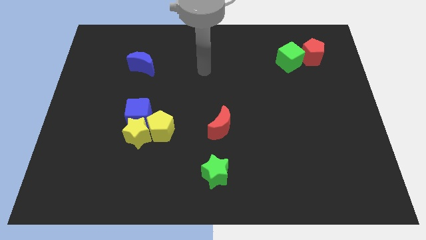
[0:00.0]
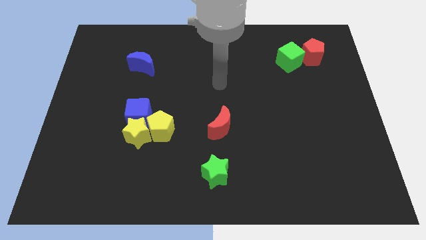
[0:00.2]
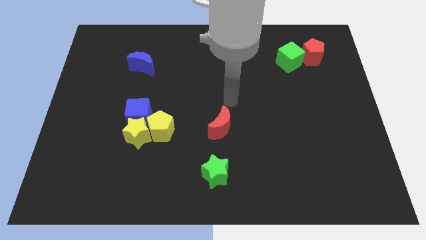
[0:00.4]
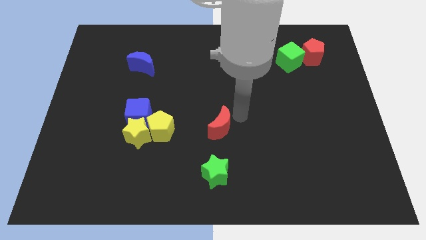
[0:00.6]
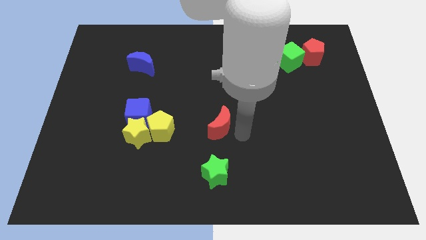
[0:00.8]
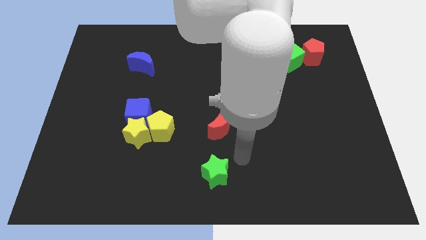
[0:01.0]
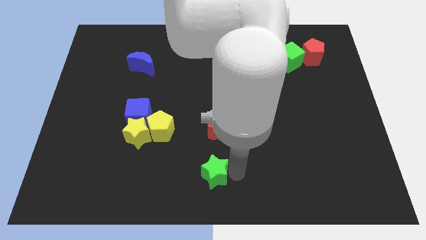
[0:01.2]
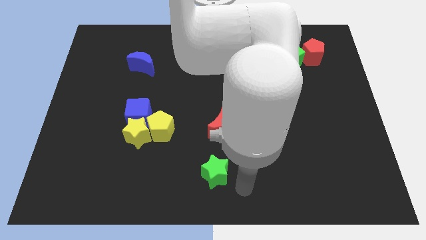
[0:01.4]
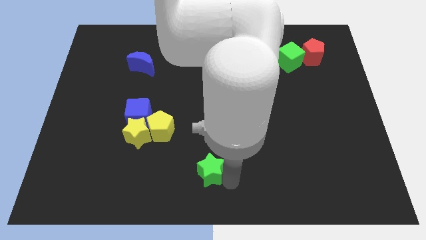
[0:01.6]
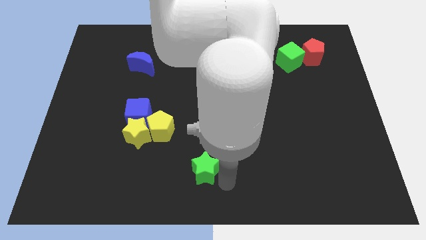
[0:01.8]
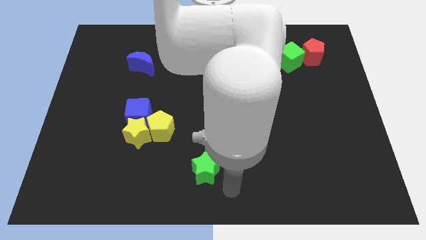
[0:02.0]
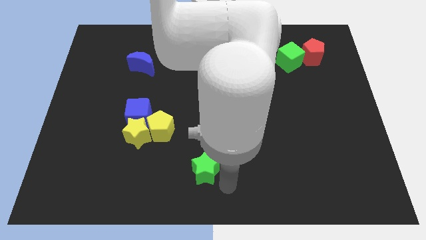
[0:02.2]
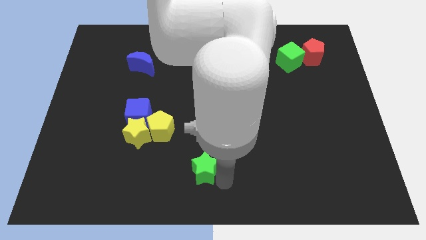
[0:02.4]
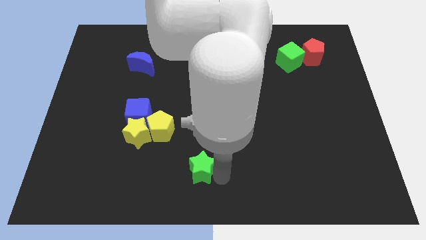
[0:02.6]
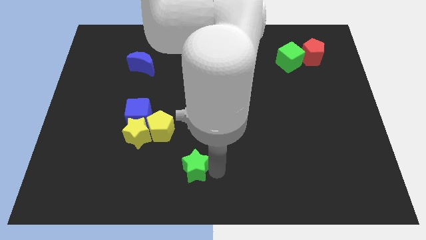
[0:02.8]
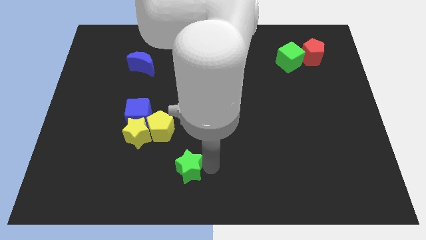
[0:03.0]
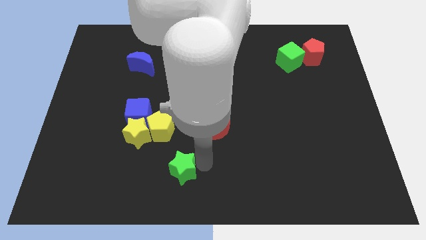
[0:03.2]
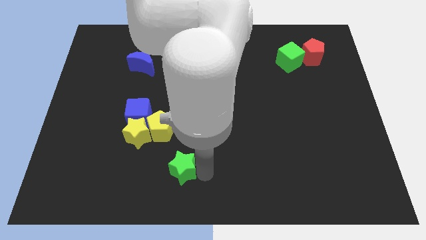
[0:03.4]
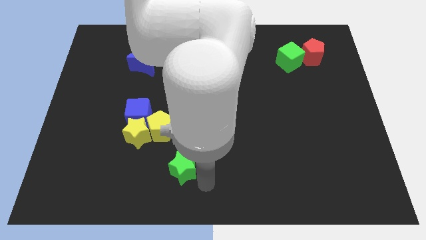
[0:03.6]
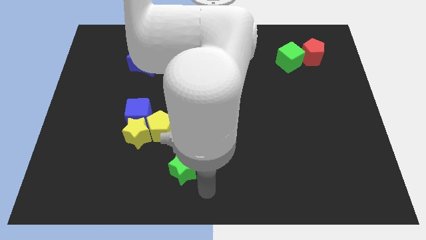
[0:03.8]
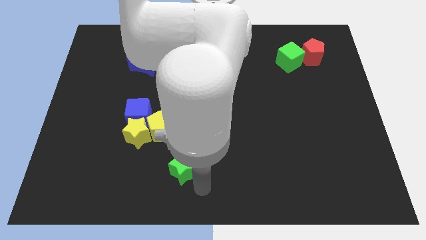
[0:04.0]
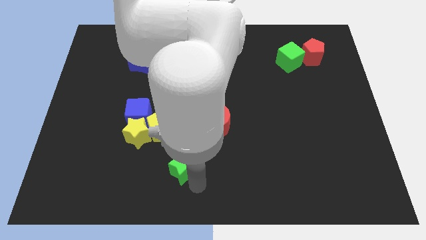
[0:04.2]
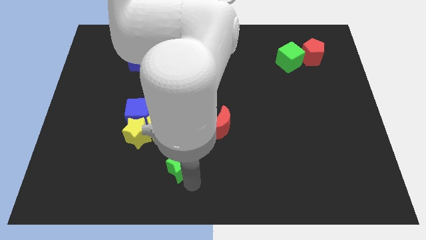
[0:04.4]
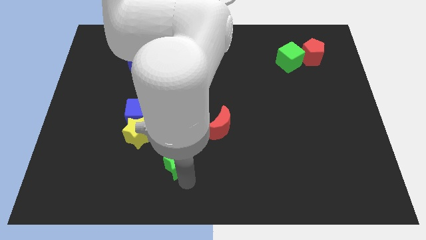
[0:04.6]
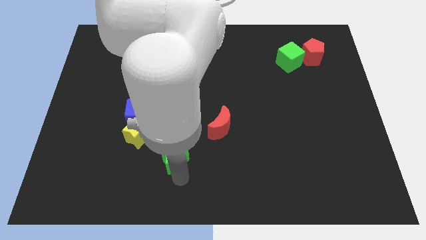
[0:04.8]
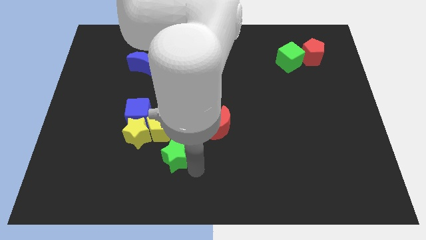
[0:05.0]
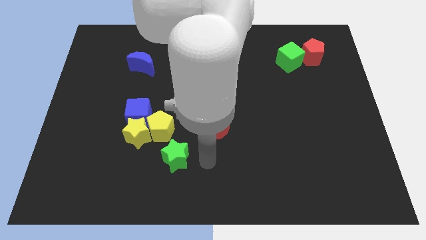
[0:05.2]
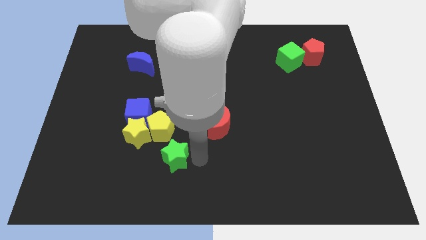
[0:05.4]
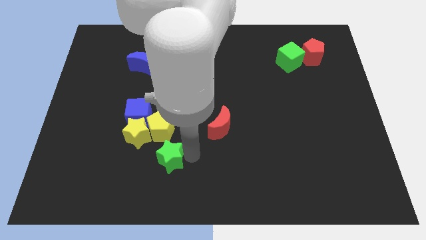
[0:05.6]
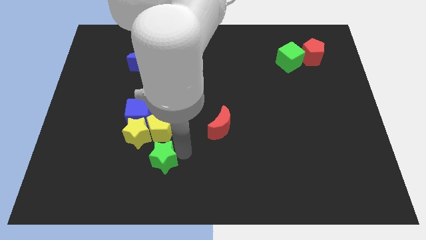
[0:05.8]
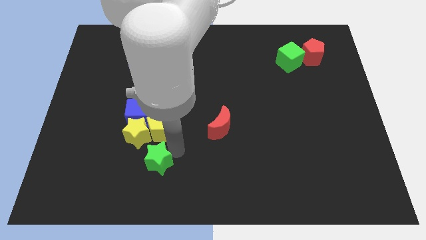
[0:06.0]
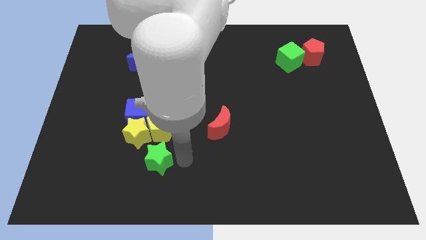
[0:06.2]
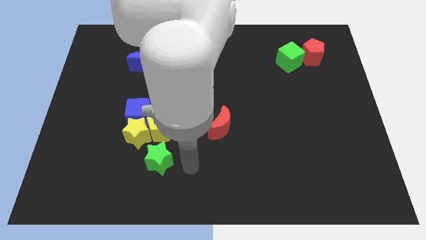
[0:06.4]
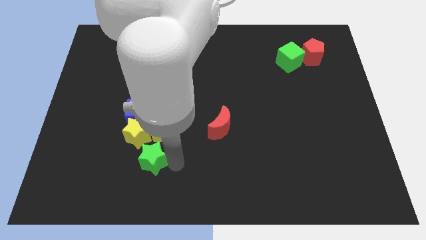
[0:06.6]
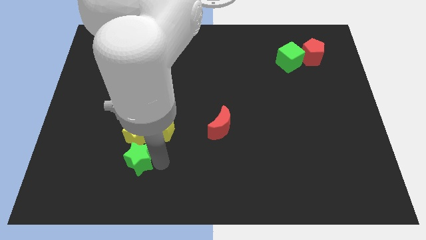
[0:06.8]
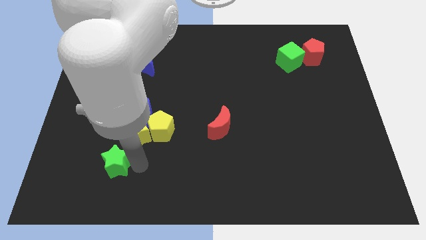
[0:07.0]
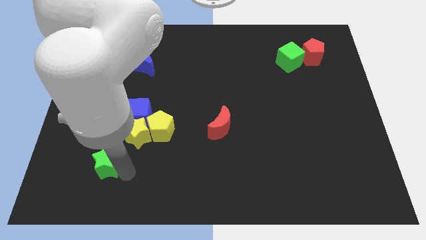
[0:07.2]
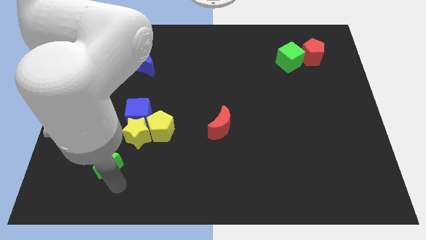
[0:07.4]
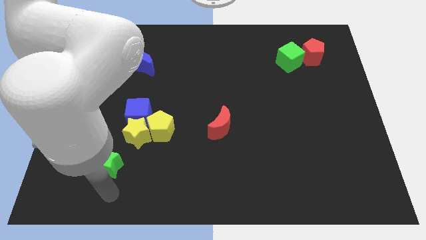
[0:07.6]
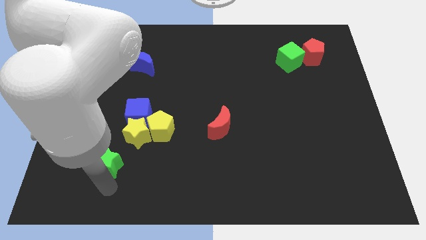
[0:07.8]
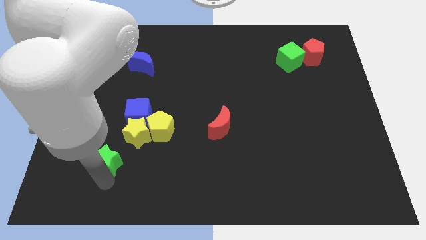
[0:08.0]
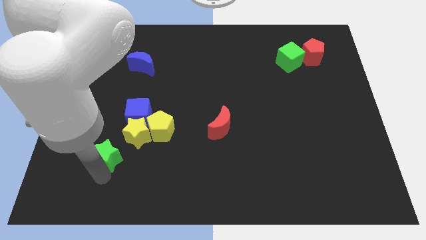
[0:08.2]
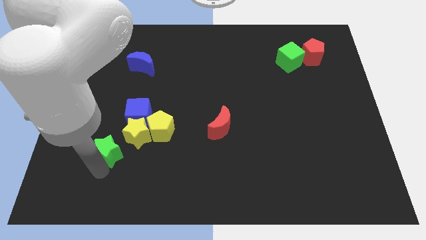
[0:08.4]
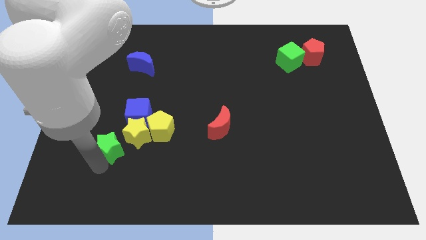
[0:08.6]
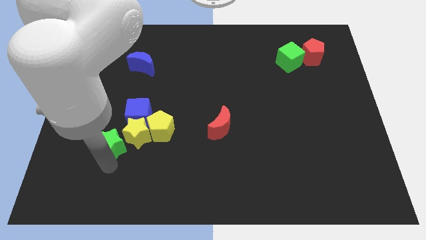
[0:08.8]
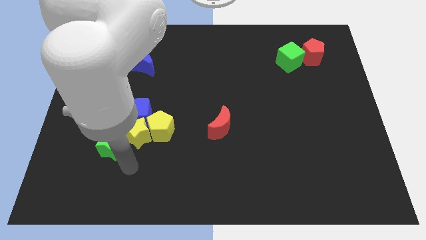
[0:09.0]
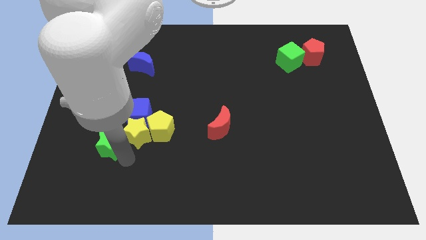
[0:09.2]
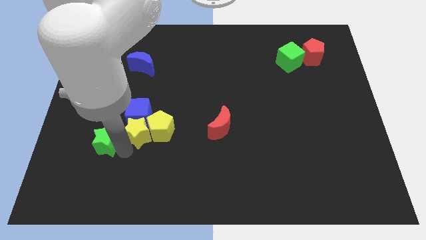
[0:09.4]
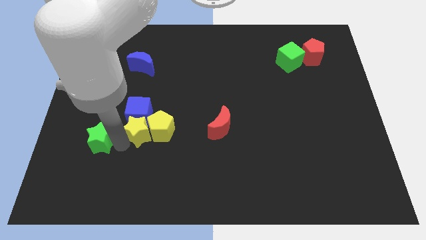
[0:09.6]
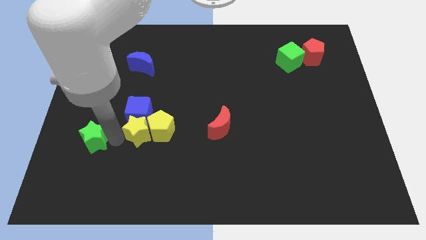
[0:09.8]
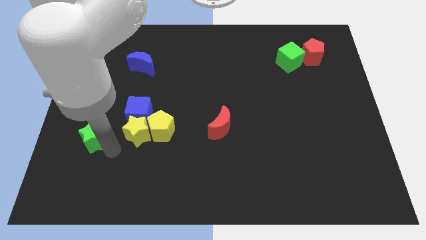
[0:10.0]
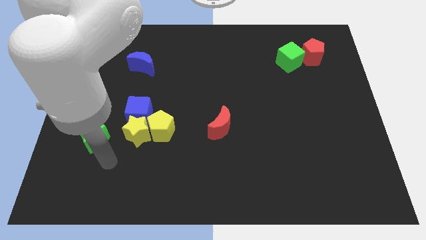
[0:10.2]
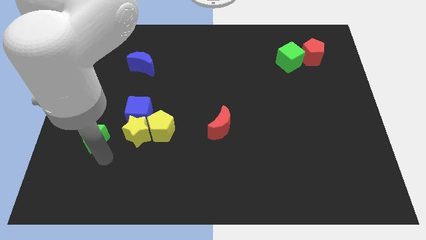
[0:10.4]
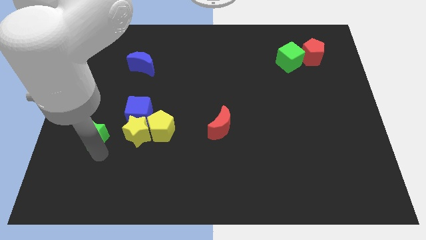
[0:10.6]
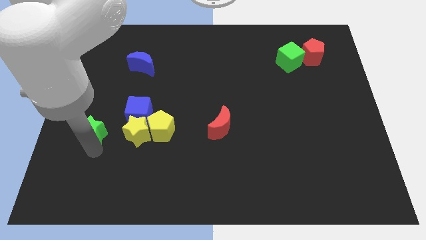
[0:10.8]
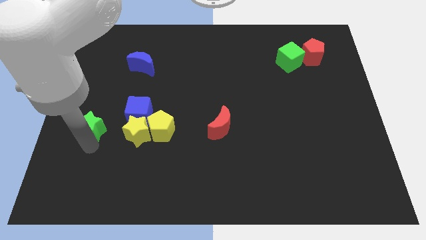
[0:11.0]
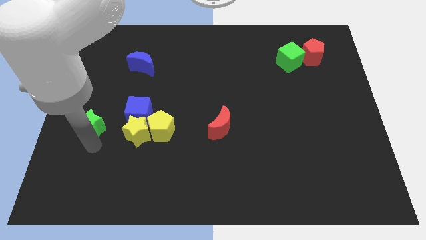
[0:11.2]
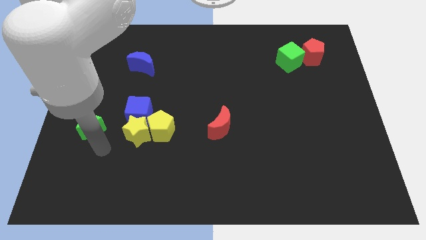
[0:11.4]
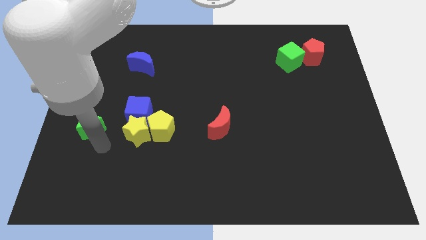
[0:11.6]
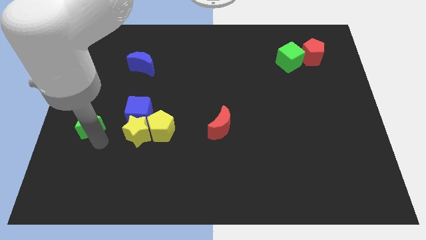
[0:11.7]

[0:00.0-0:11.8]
slide the green star to the center left

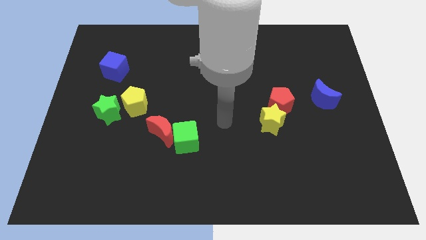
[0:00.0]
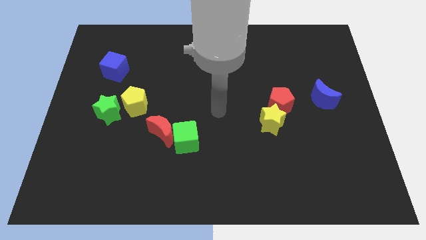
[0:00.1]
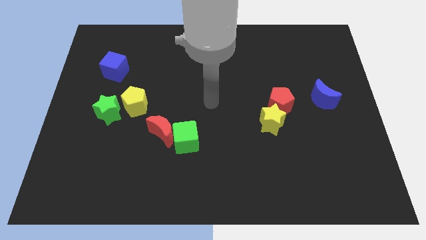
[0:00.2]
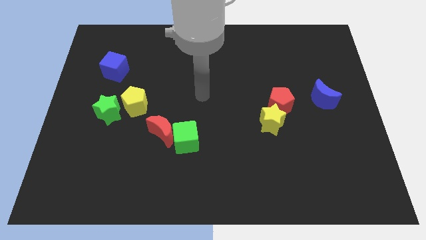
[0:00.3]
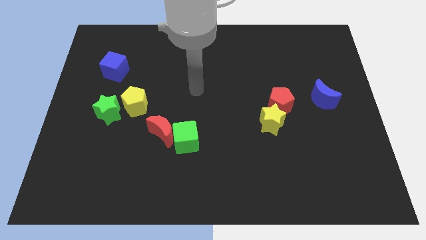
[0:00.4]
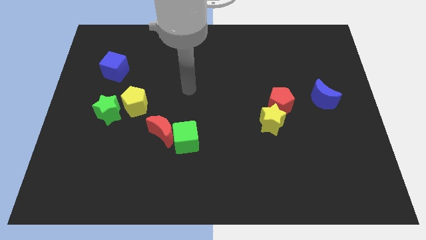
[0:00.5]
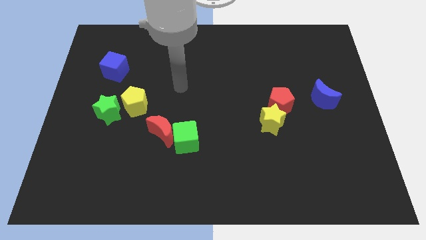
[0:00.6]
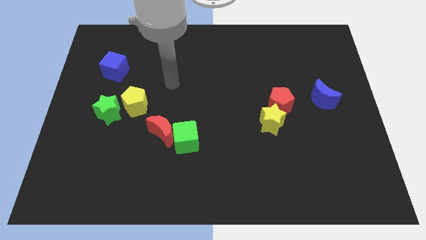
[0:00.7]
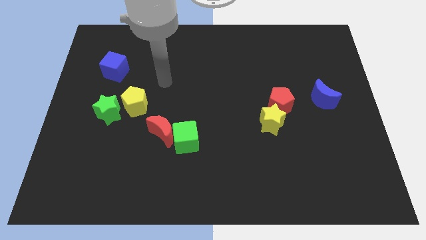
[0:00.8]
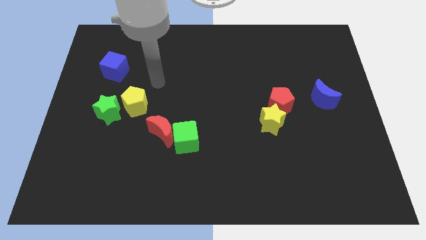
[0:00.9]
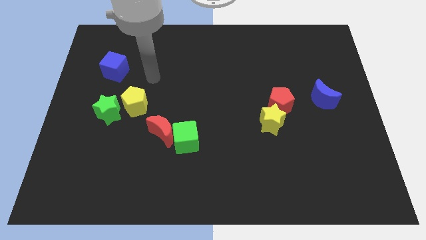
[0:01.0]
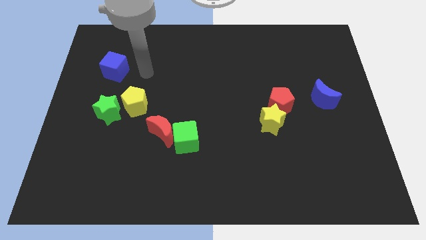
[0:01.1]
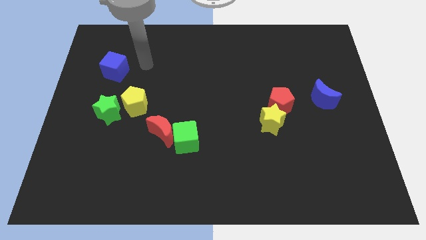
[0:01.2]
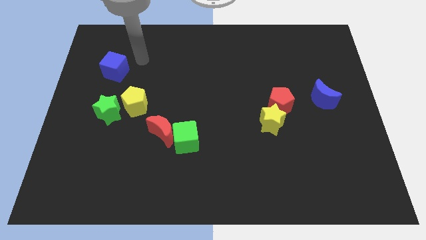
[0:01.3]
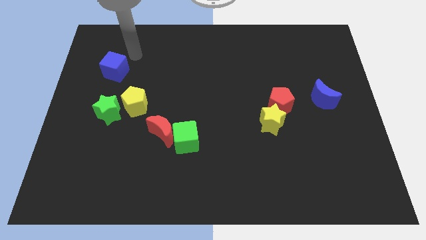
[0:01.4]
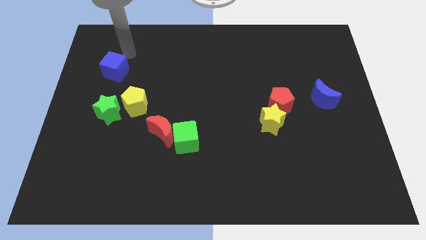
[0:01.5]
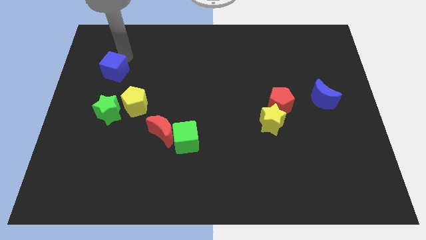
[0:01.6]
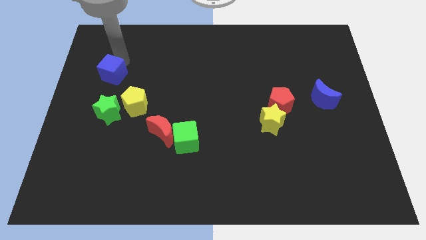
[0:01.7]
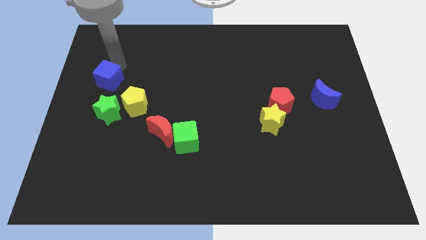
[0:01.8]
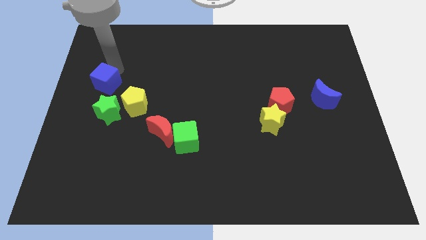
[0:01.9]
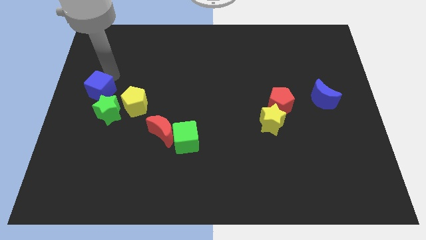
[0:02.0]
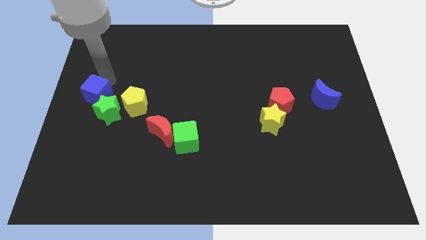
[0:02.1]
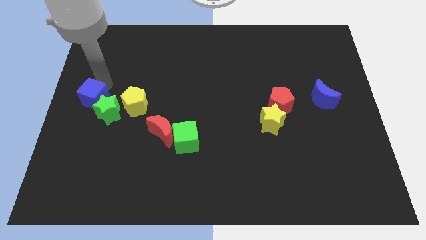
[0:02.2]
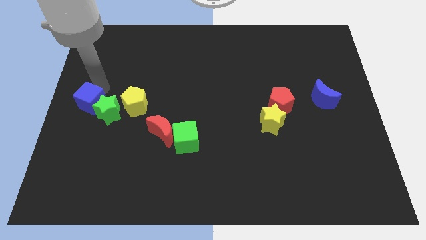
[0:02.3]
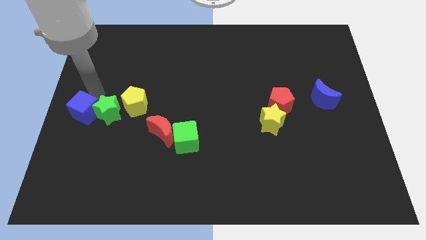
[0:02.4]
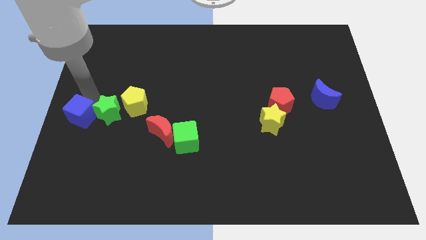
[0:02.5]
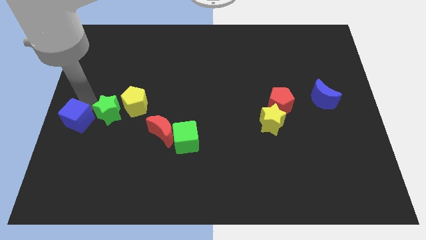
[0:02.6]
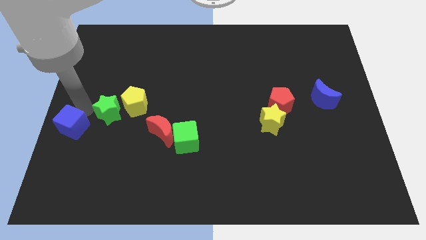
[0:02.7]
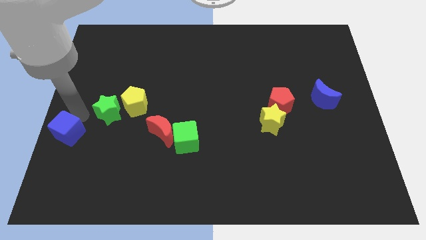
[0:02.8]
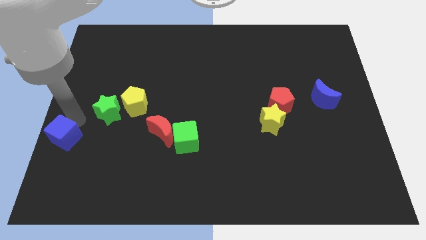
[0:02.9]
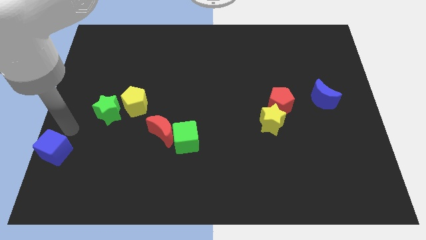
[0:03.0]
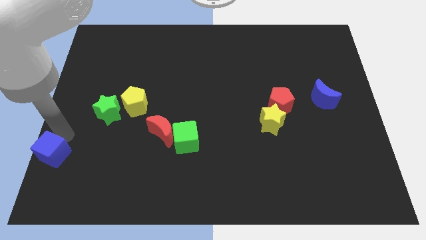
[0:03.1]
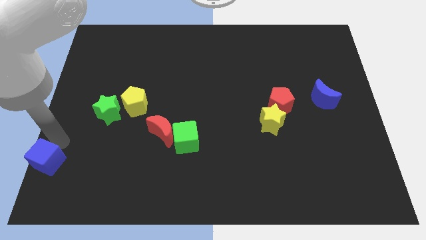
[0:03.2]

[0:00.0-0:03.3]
slide the blue cube to the lower left corner
